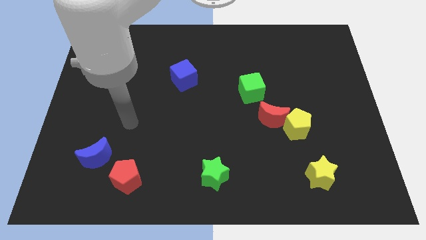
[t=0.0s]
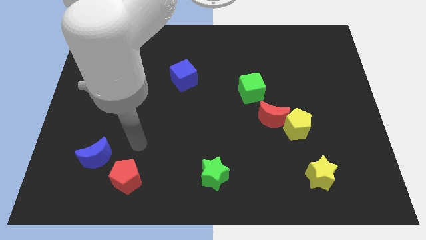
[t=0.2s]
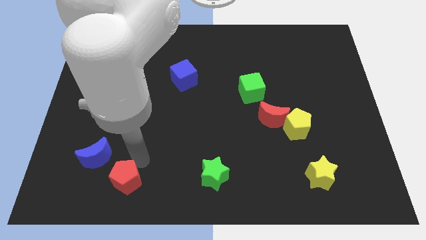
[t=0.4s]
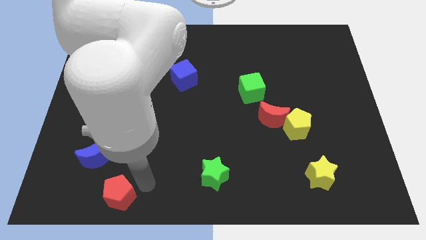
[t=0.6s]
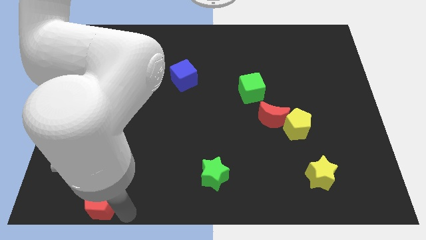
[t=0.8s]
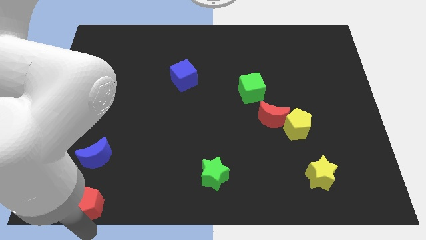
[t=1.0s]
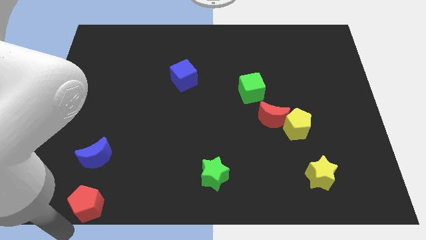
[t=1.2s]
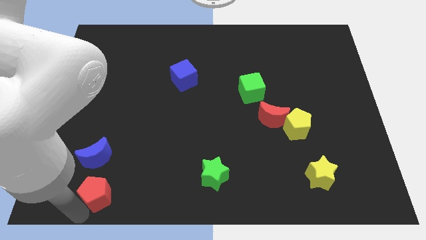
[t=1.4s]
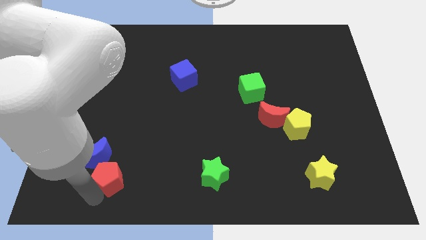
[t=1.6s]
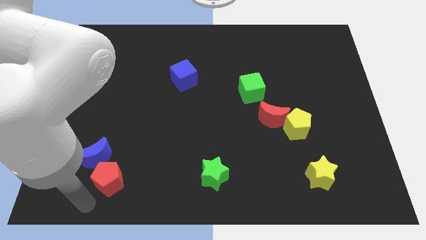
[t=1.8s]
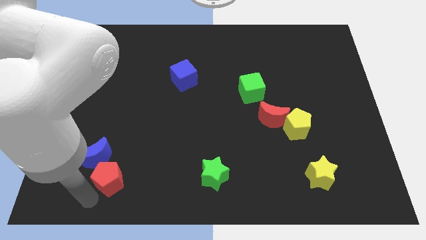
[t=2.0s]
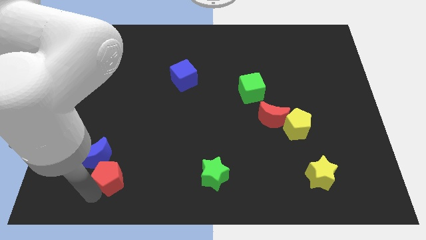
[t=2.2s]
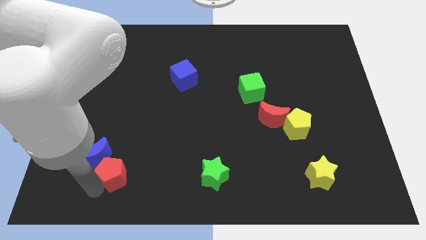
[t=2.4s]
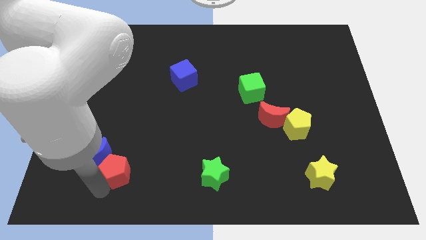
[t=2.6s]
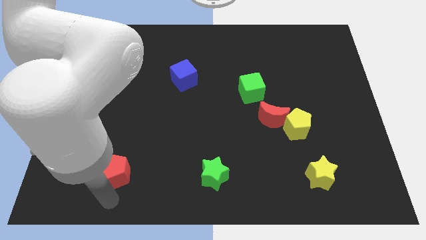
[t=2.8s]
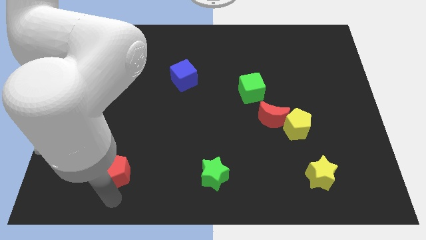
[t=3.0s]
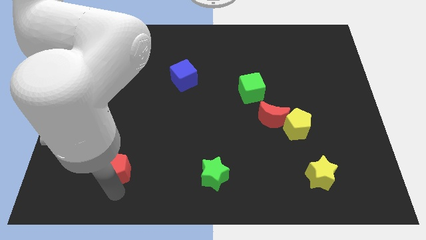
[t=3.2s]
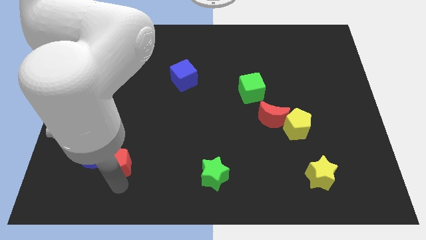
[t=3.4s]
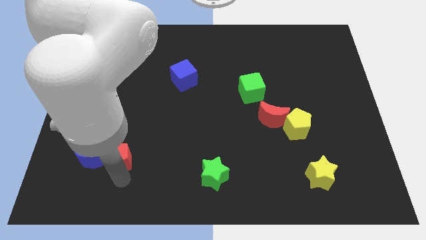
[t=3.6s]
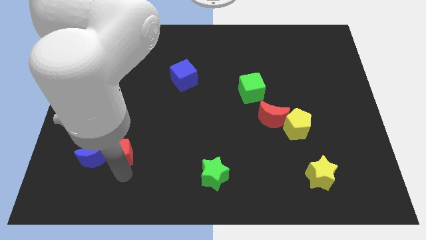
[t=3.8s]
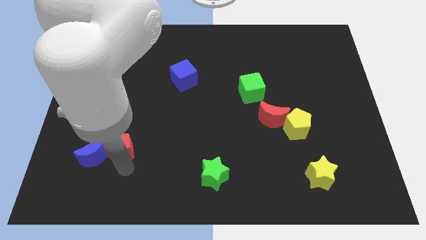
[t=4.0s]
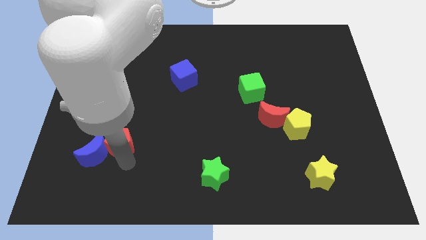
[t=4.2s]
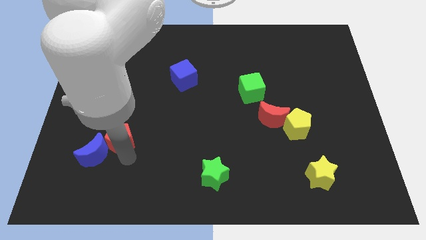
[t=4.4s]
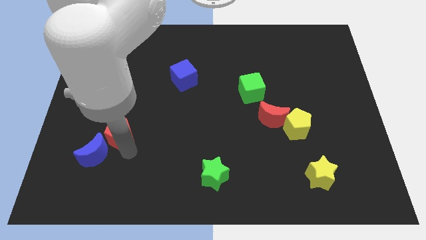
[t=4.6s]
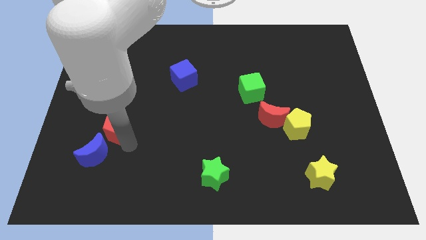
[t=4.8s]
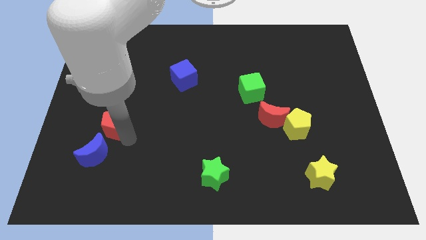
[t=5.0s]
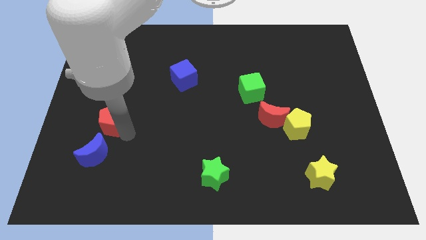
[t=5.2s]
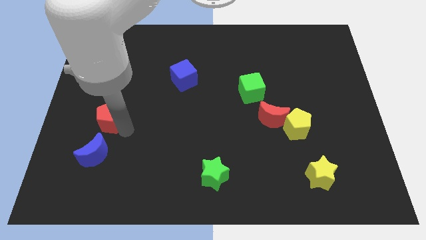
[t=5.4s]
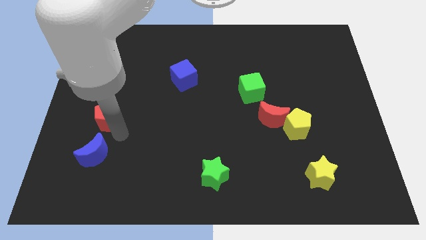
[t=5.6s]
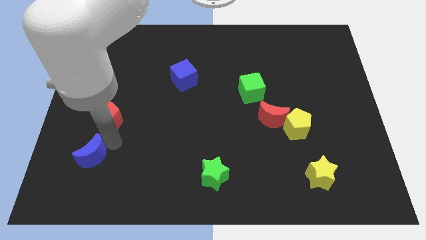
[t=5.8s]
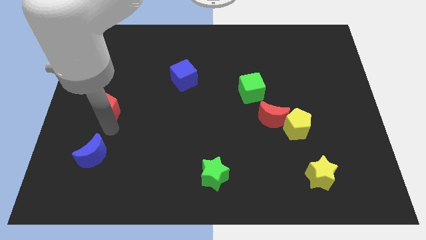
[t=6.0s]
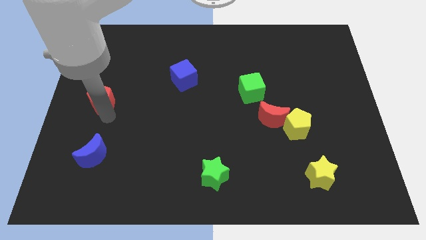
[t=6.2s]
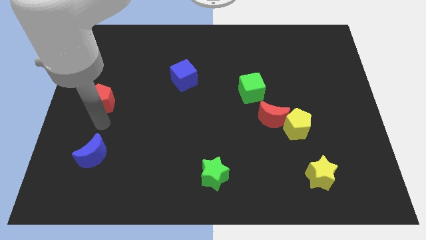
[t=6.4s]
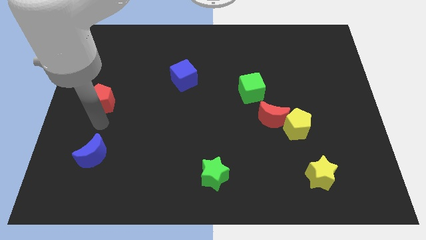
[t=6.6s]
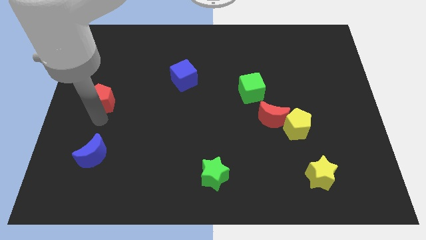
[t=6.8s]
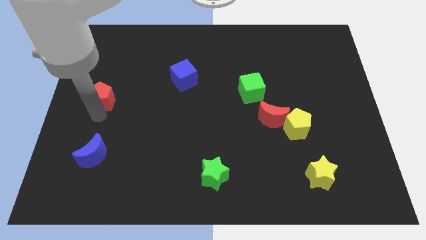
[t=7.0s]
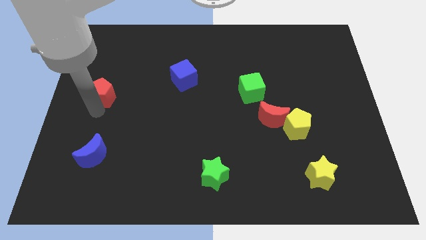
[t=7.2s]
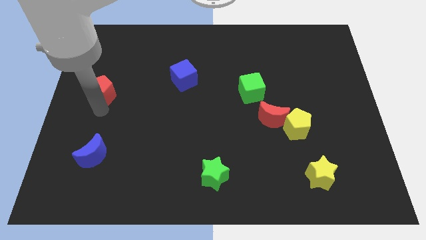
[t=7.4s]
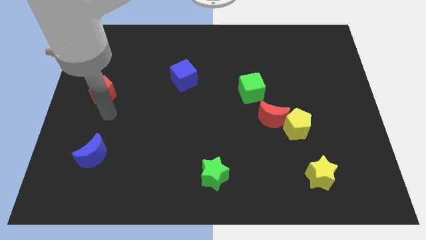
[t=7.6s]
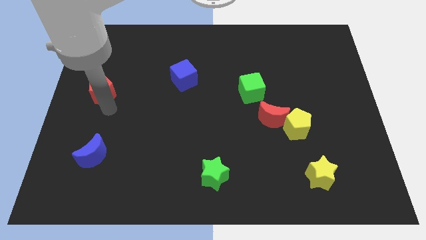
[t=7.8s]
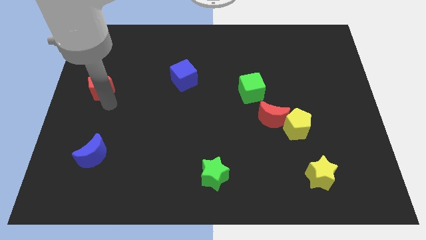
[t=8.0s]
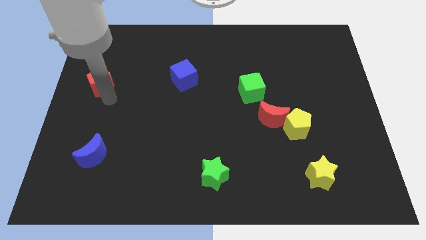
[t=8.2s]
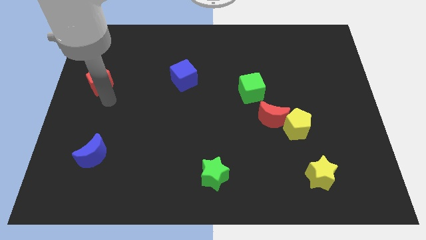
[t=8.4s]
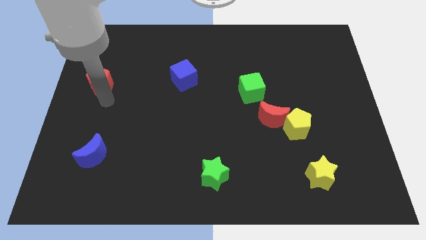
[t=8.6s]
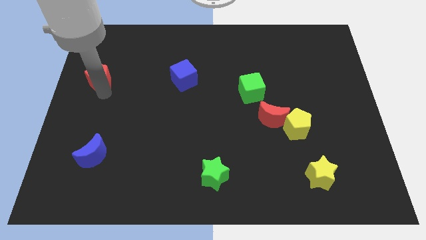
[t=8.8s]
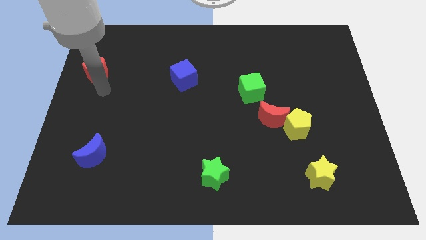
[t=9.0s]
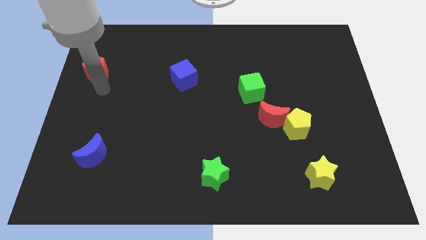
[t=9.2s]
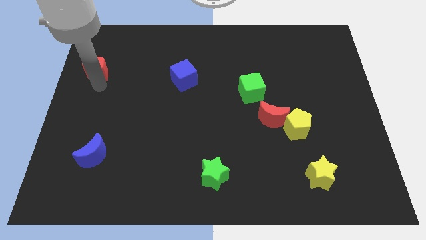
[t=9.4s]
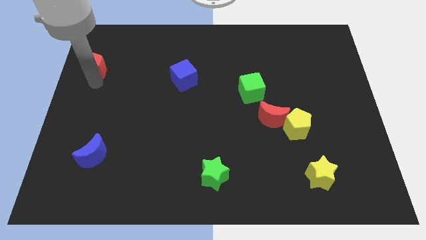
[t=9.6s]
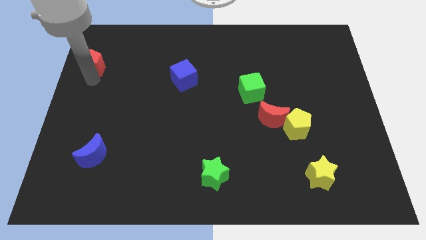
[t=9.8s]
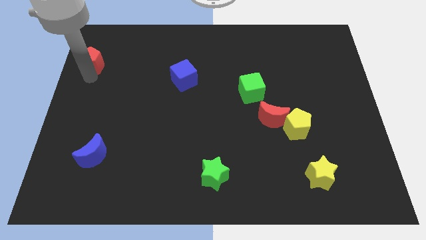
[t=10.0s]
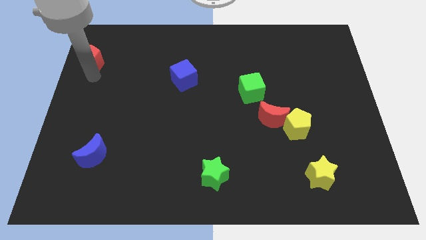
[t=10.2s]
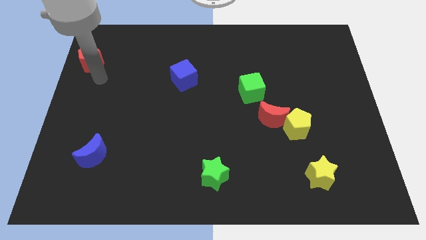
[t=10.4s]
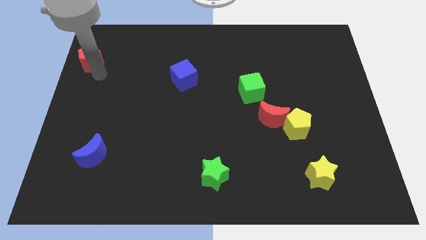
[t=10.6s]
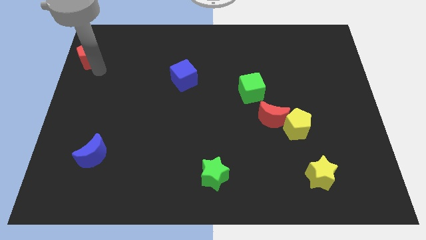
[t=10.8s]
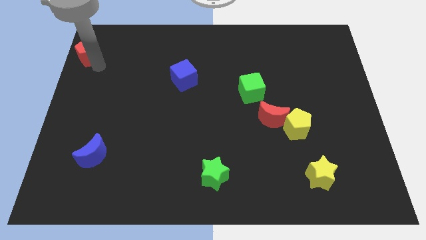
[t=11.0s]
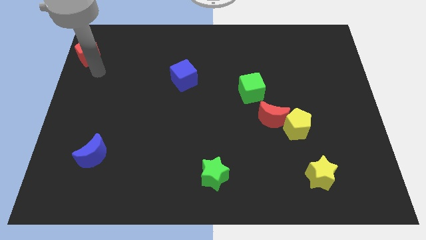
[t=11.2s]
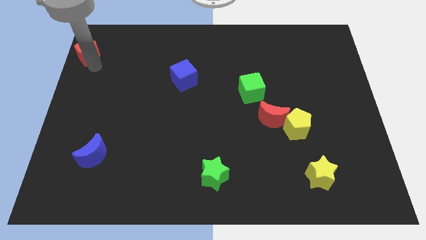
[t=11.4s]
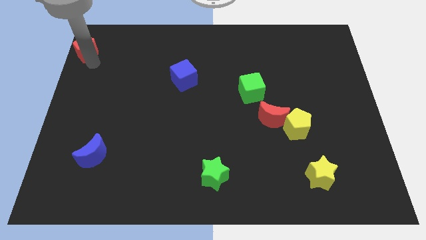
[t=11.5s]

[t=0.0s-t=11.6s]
put the red pentagon to the top left corner

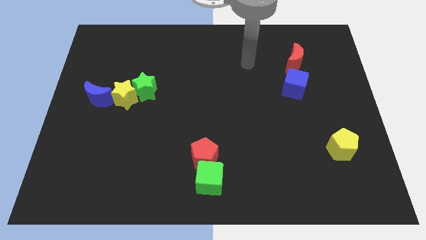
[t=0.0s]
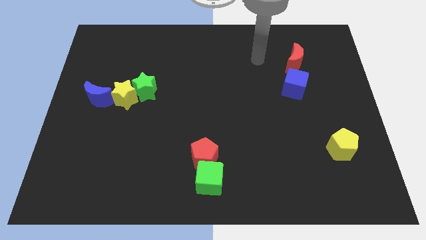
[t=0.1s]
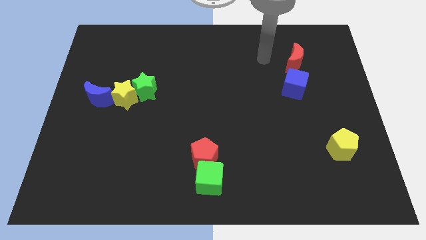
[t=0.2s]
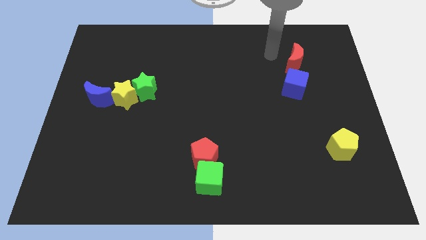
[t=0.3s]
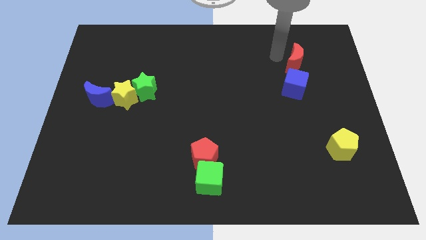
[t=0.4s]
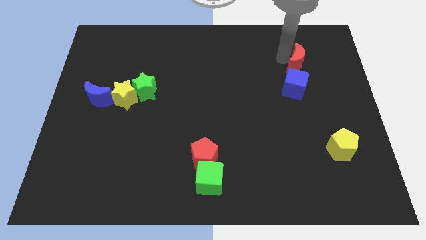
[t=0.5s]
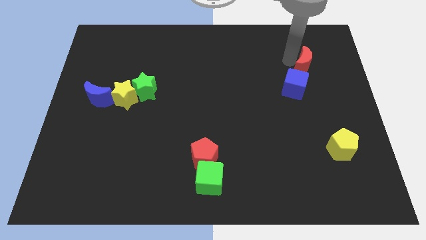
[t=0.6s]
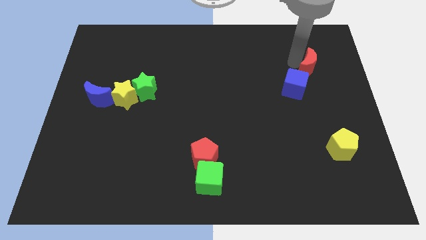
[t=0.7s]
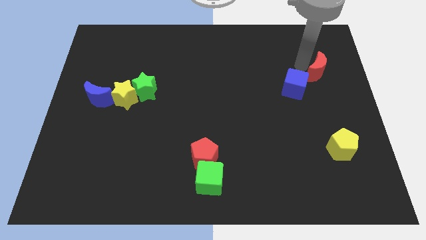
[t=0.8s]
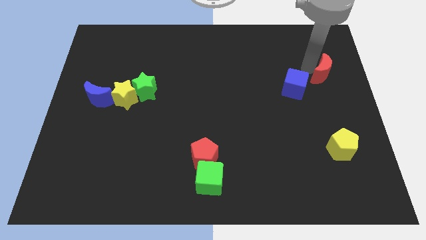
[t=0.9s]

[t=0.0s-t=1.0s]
move the red moon to the right side of the board

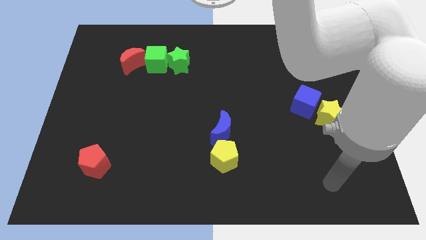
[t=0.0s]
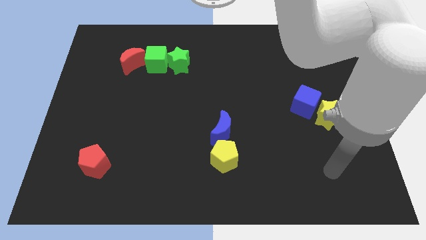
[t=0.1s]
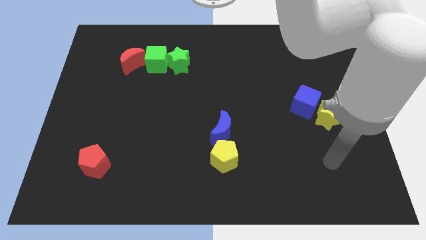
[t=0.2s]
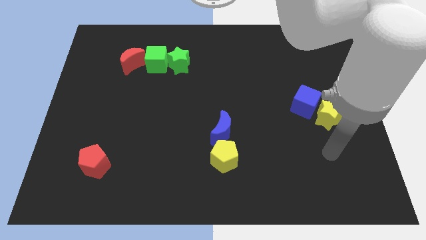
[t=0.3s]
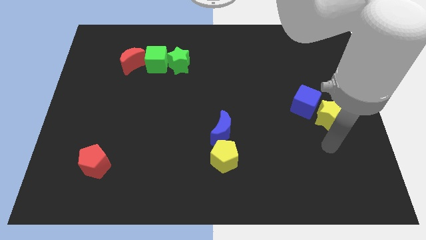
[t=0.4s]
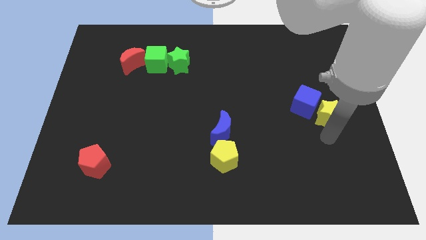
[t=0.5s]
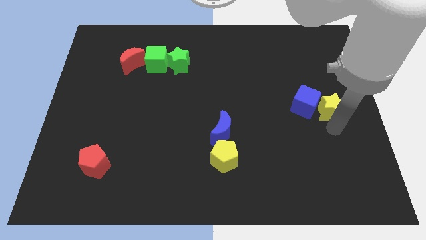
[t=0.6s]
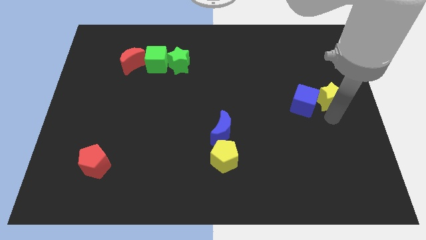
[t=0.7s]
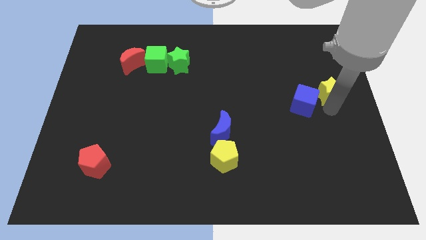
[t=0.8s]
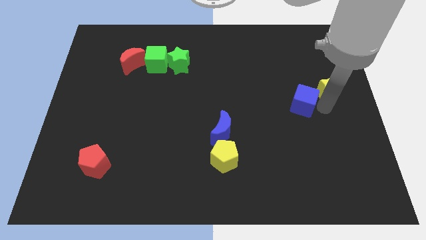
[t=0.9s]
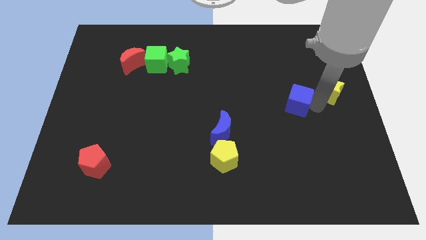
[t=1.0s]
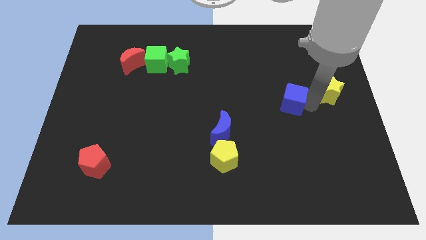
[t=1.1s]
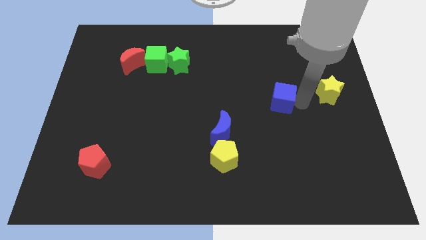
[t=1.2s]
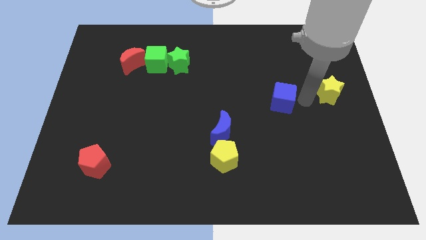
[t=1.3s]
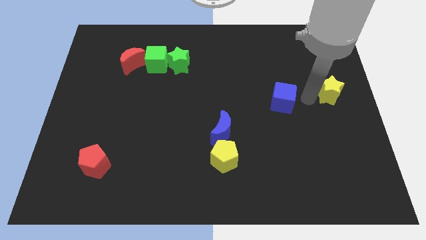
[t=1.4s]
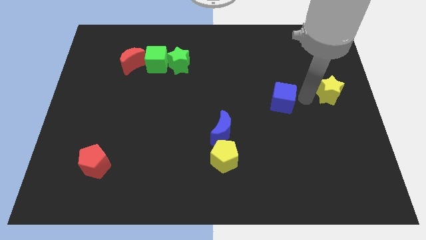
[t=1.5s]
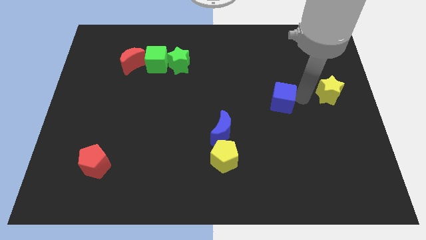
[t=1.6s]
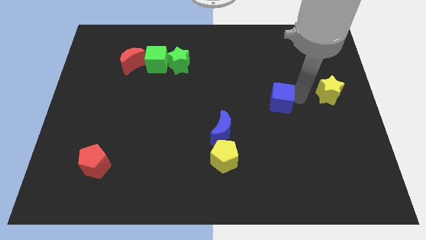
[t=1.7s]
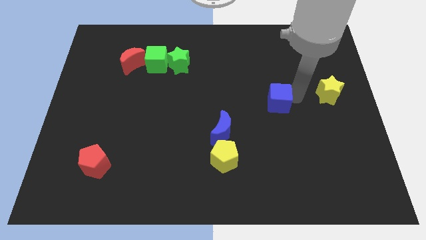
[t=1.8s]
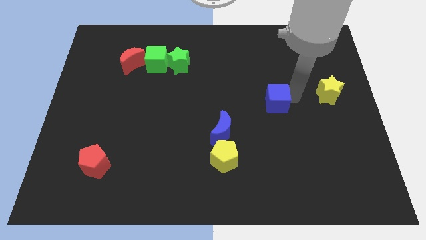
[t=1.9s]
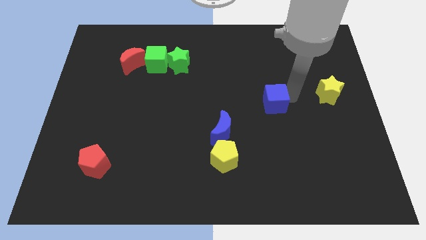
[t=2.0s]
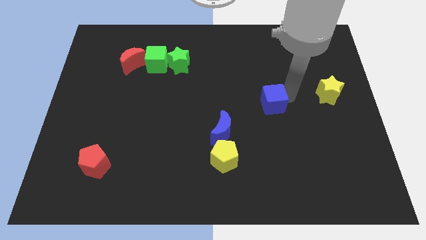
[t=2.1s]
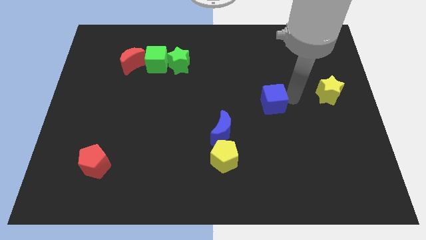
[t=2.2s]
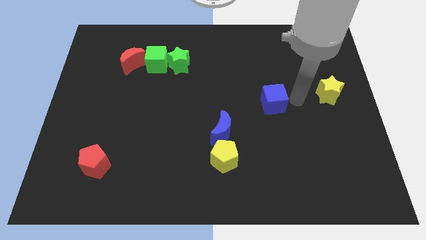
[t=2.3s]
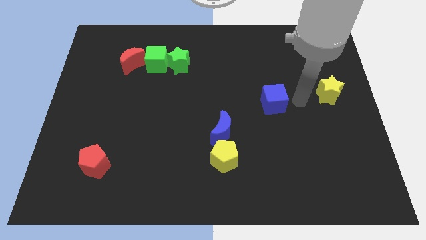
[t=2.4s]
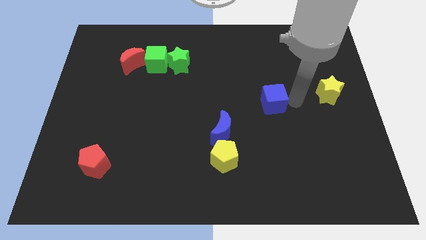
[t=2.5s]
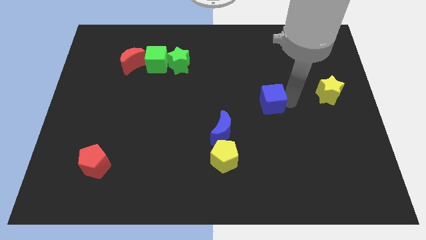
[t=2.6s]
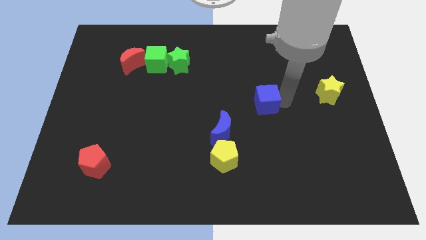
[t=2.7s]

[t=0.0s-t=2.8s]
move the blue cube to the center of the board
